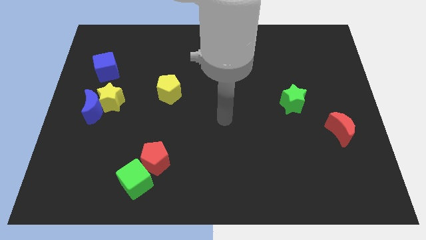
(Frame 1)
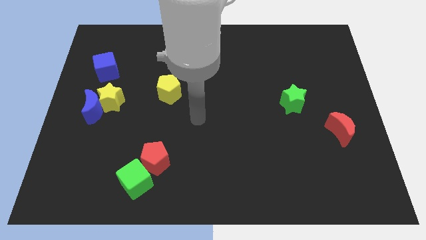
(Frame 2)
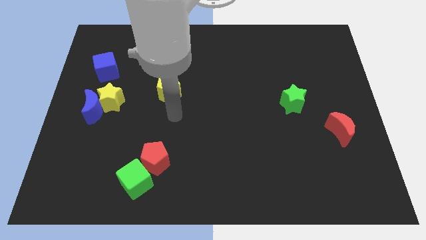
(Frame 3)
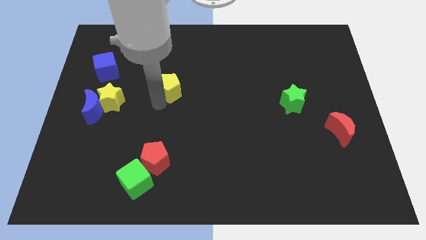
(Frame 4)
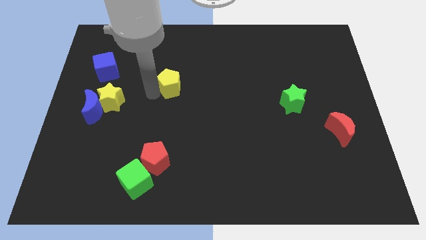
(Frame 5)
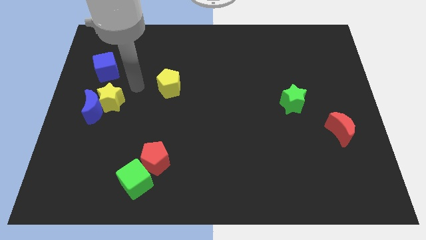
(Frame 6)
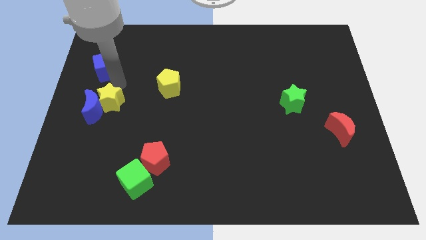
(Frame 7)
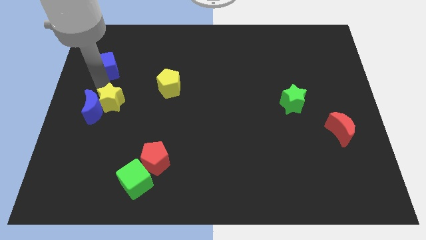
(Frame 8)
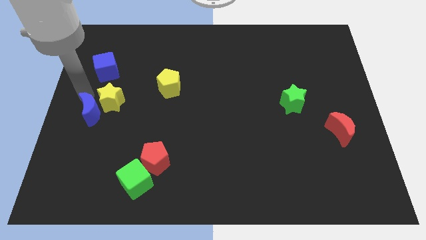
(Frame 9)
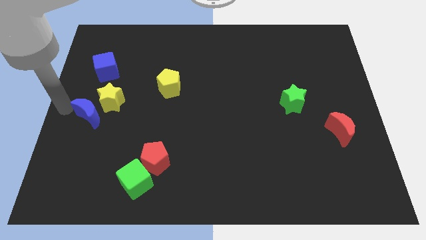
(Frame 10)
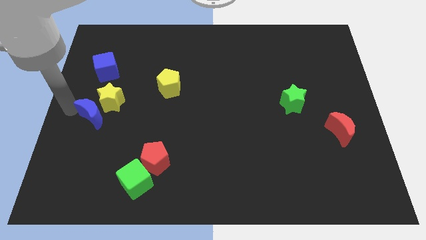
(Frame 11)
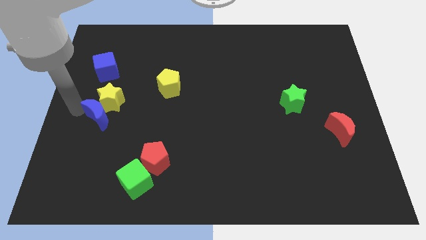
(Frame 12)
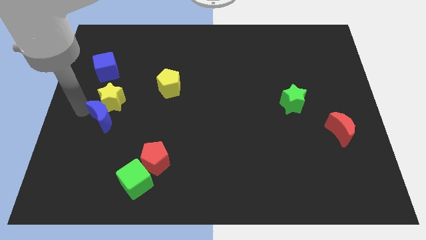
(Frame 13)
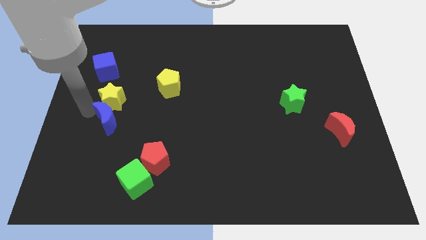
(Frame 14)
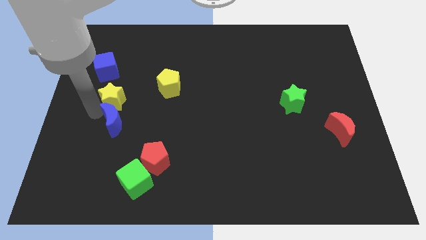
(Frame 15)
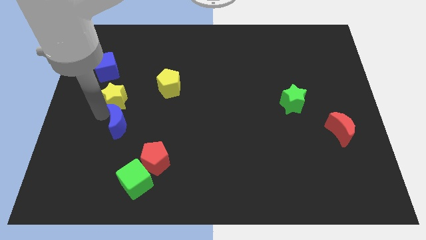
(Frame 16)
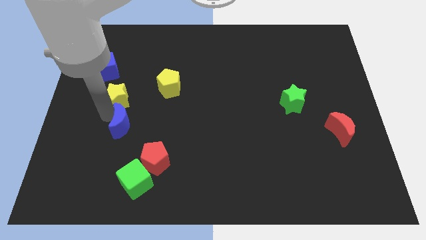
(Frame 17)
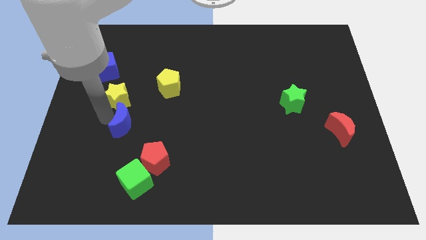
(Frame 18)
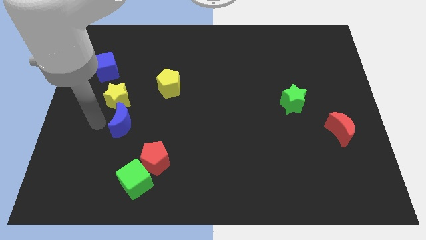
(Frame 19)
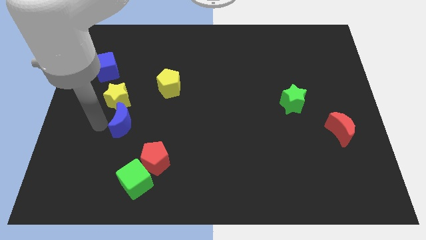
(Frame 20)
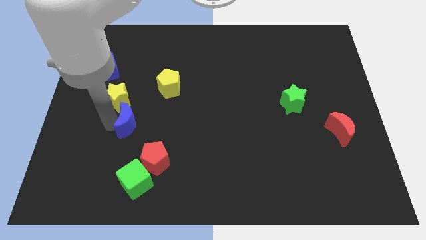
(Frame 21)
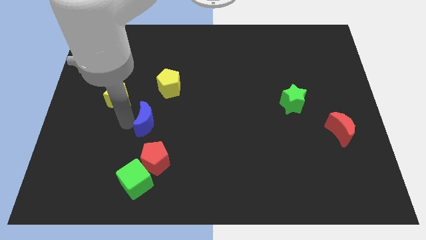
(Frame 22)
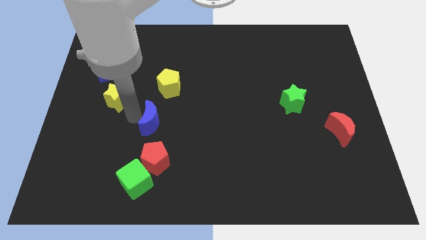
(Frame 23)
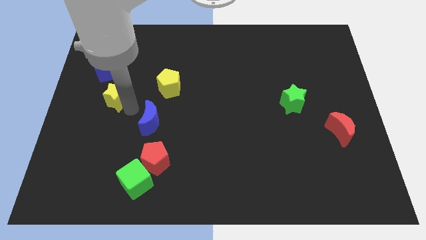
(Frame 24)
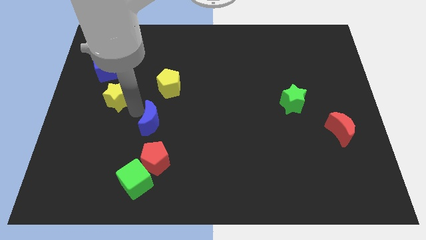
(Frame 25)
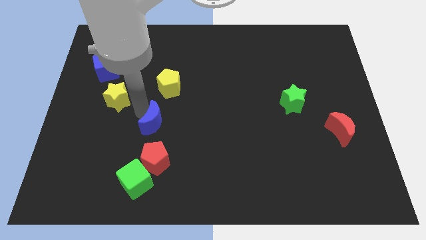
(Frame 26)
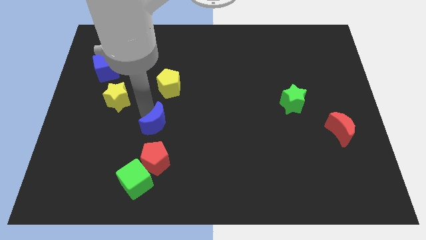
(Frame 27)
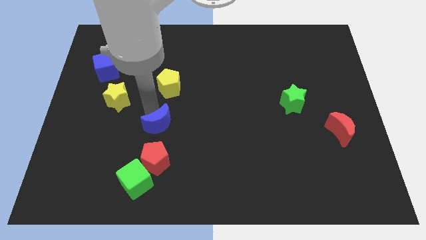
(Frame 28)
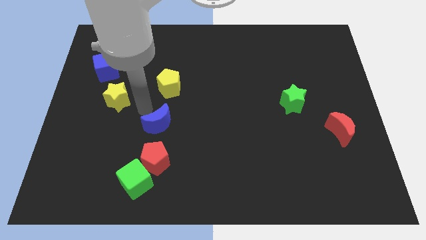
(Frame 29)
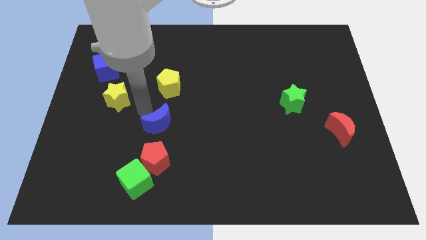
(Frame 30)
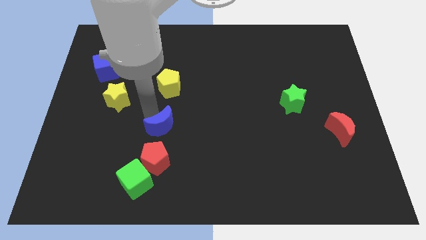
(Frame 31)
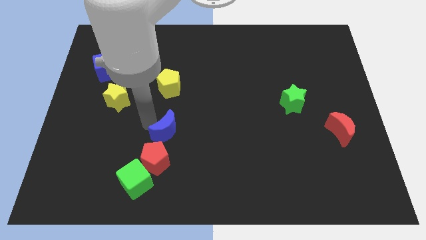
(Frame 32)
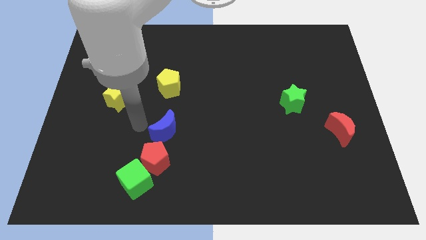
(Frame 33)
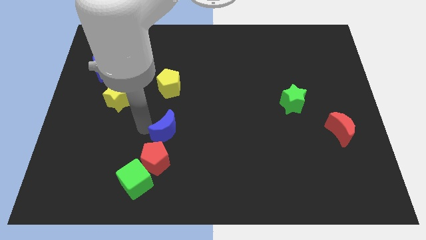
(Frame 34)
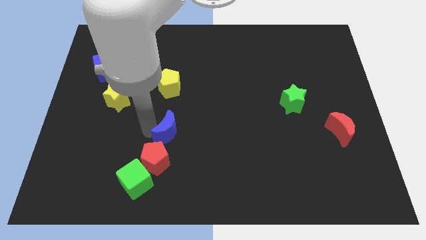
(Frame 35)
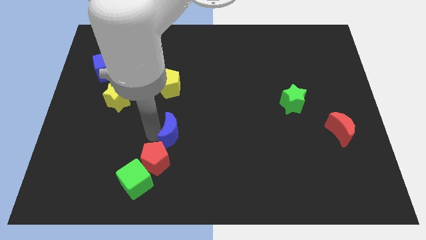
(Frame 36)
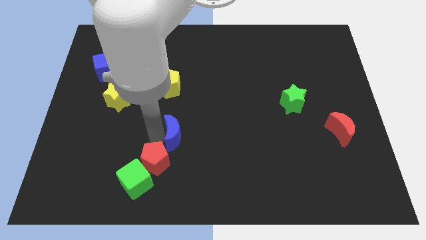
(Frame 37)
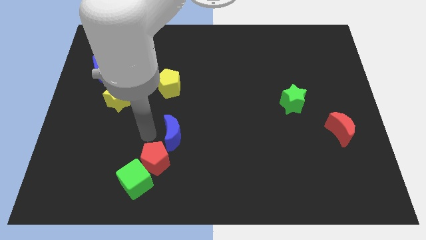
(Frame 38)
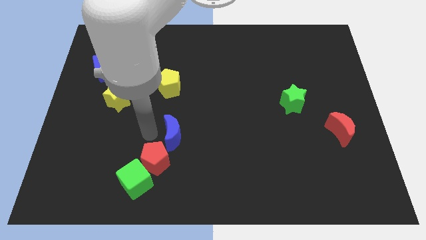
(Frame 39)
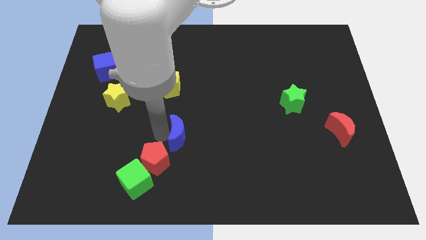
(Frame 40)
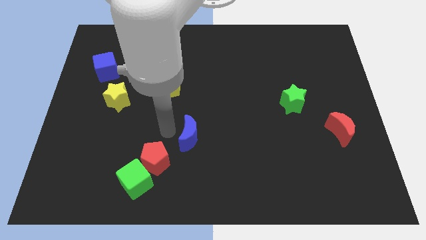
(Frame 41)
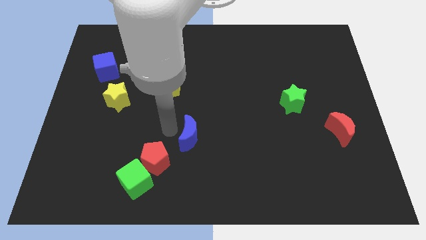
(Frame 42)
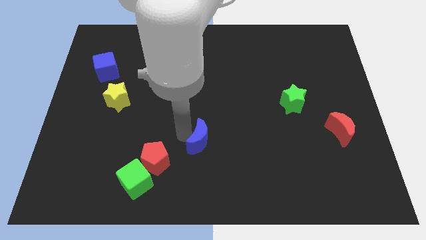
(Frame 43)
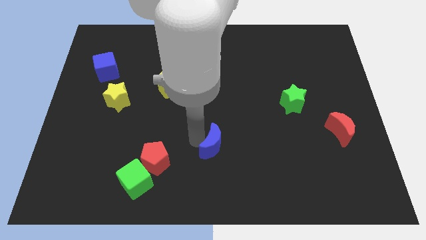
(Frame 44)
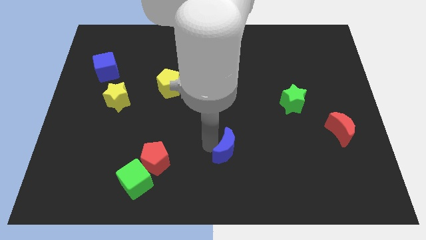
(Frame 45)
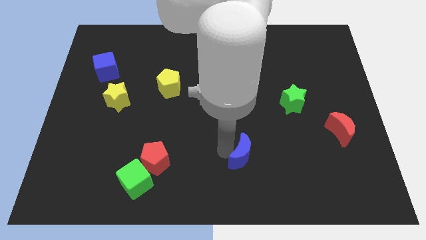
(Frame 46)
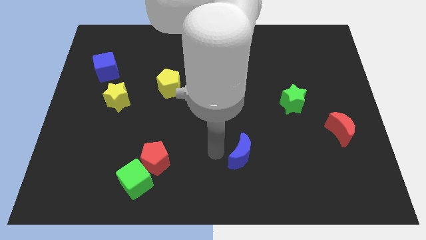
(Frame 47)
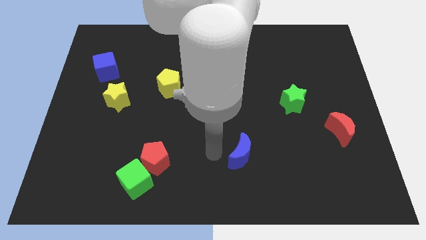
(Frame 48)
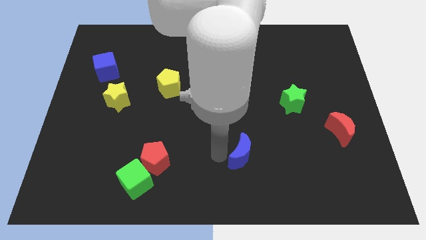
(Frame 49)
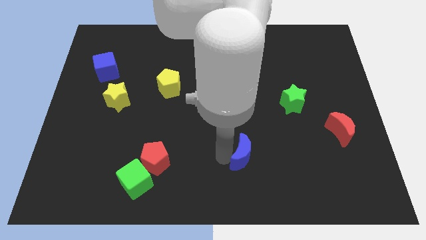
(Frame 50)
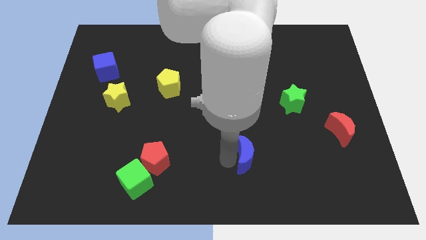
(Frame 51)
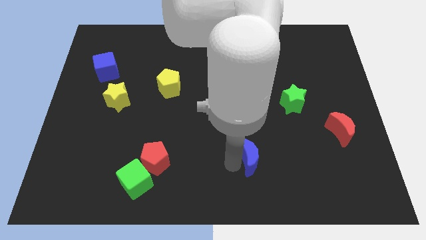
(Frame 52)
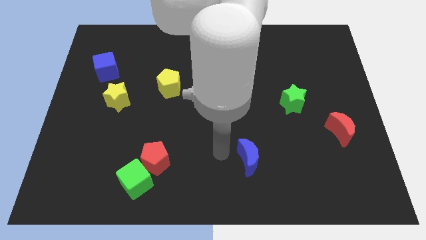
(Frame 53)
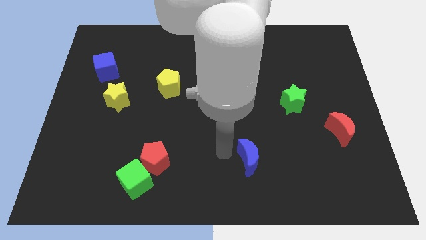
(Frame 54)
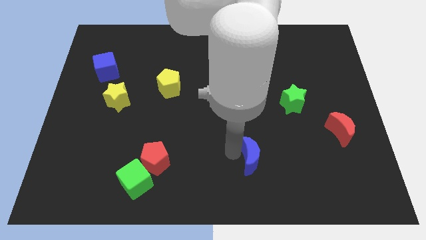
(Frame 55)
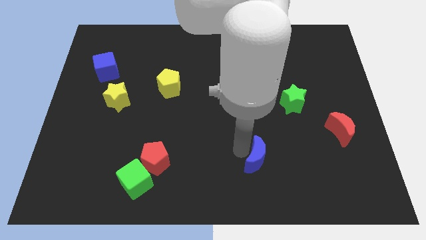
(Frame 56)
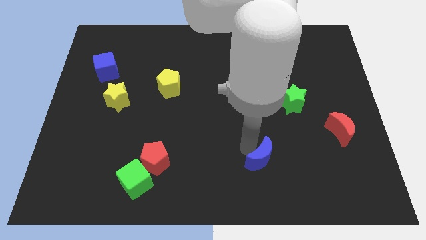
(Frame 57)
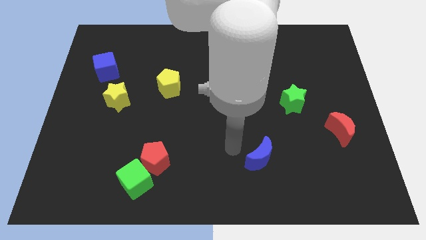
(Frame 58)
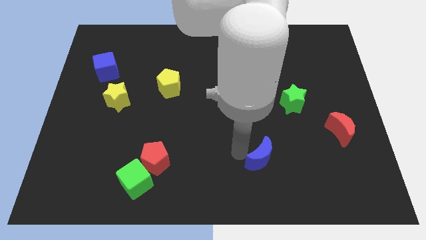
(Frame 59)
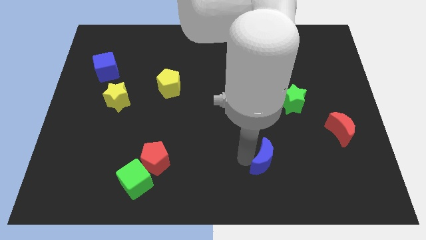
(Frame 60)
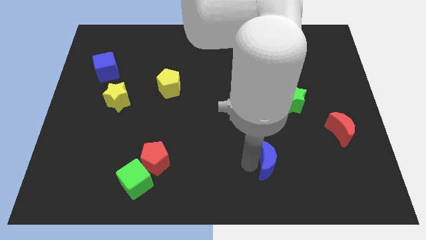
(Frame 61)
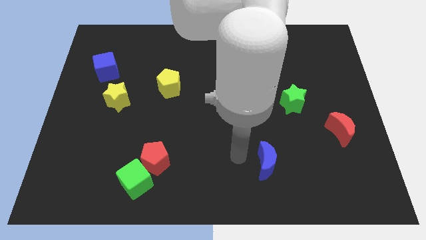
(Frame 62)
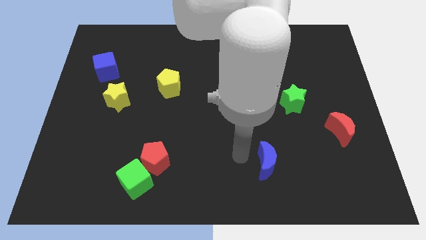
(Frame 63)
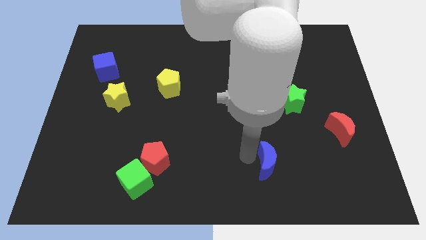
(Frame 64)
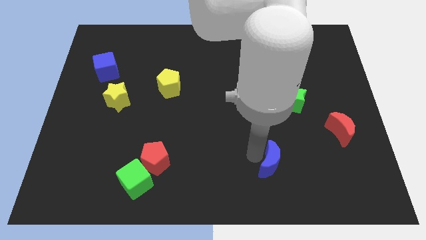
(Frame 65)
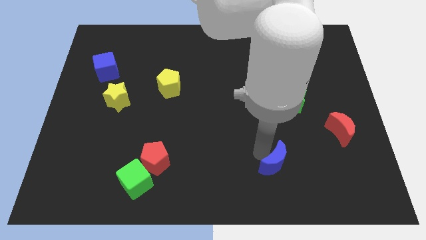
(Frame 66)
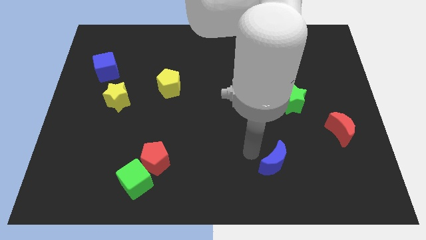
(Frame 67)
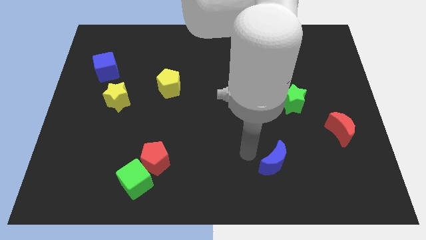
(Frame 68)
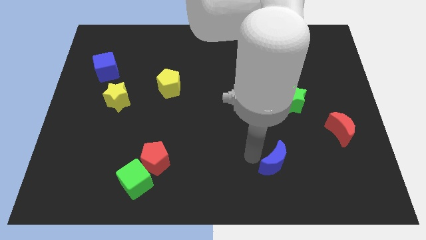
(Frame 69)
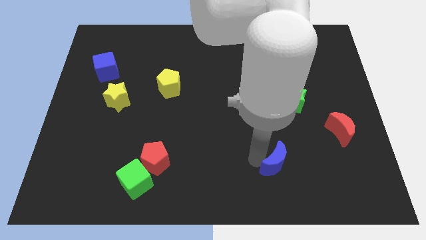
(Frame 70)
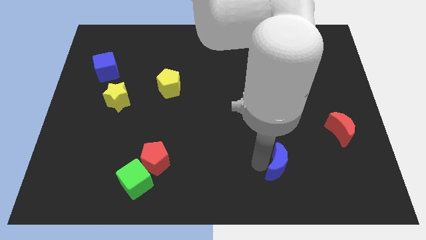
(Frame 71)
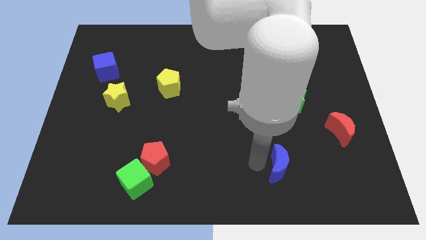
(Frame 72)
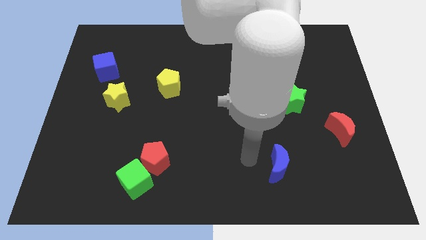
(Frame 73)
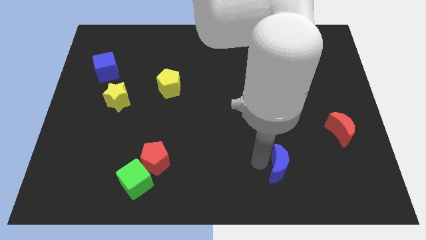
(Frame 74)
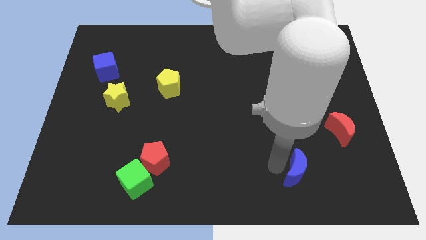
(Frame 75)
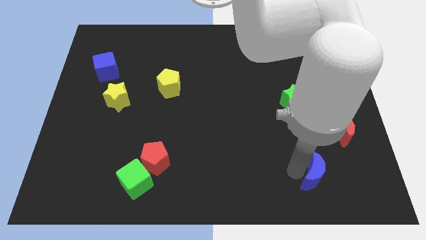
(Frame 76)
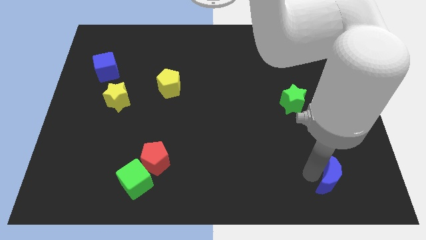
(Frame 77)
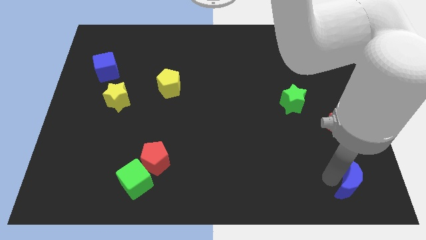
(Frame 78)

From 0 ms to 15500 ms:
push the blue moon to the bottom right of the board
